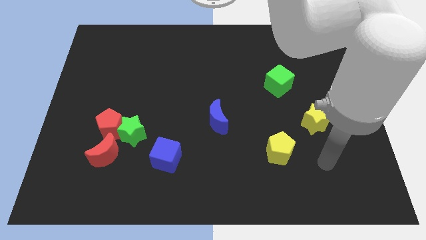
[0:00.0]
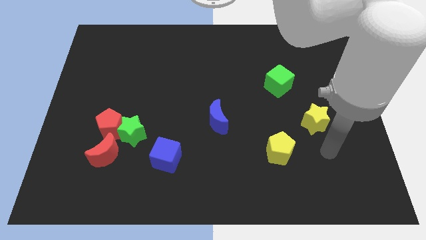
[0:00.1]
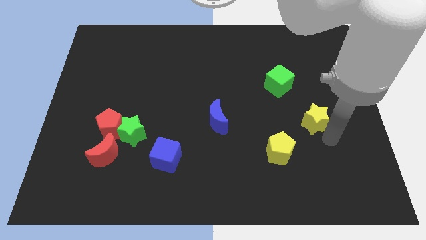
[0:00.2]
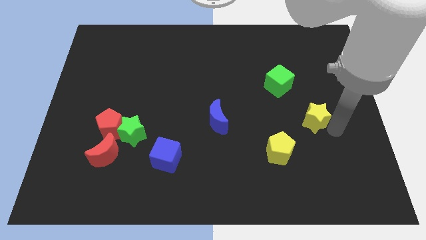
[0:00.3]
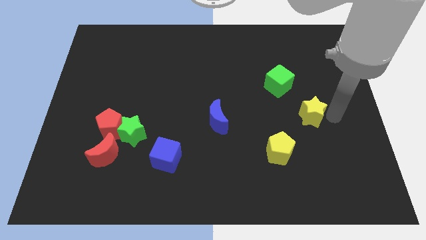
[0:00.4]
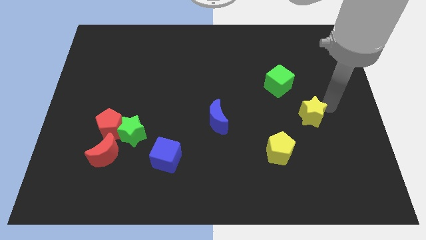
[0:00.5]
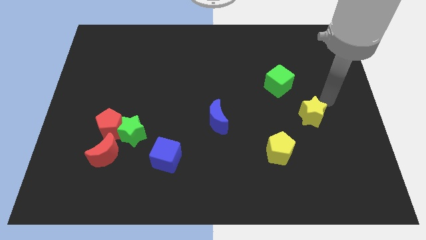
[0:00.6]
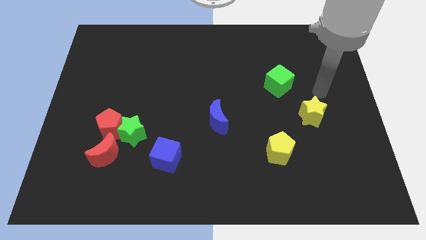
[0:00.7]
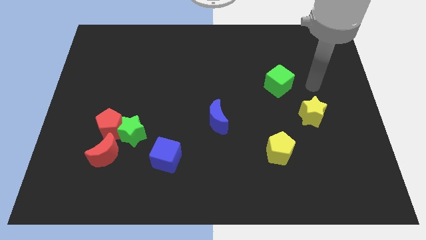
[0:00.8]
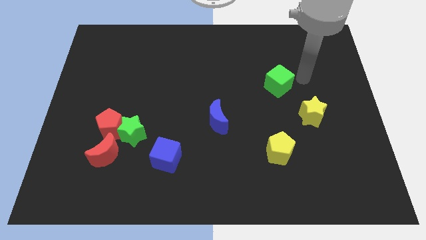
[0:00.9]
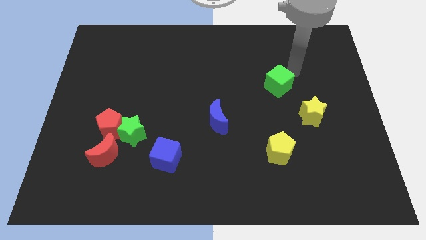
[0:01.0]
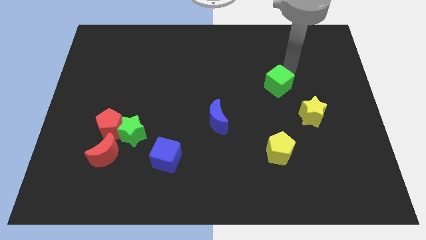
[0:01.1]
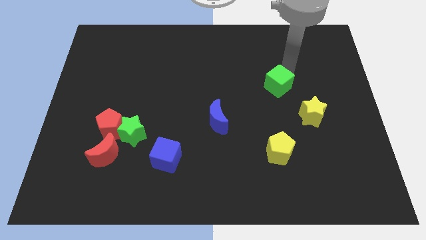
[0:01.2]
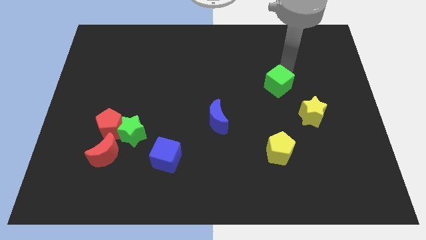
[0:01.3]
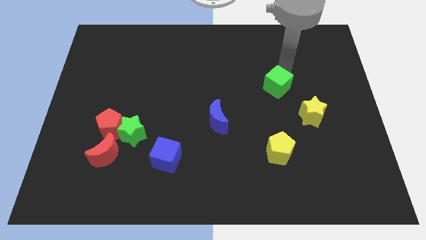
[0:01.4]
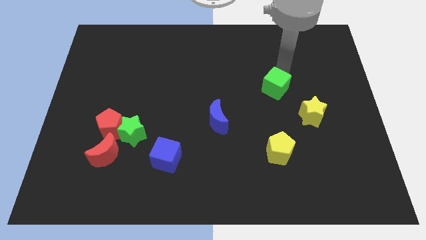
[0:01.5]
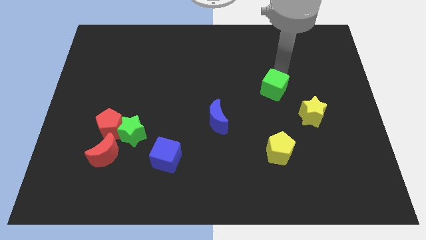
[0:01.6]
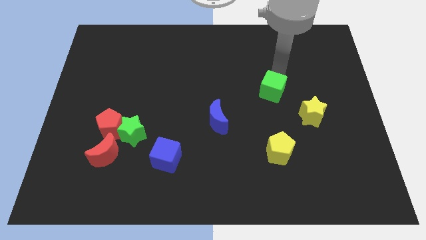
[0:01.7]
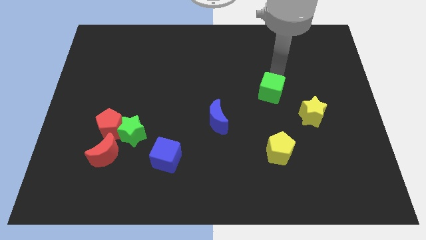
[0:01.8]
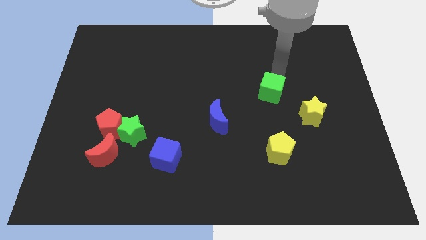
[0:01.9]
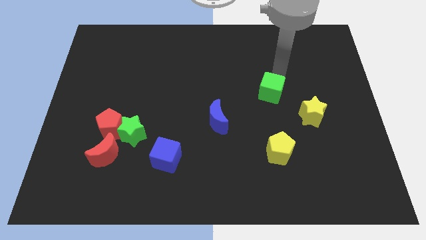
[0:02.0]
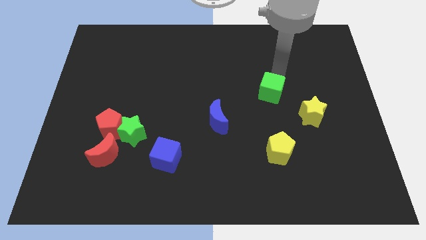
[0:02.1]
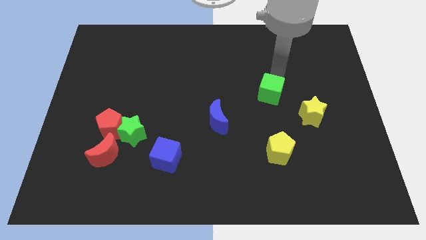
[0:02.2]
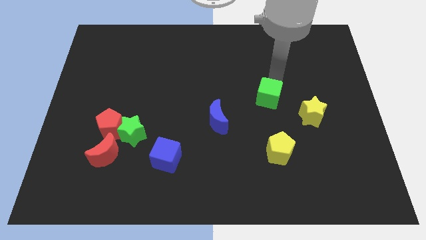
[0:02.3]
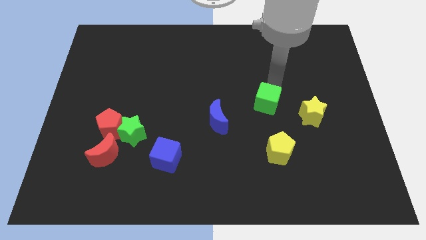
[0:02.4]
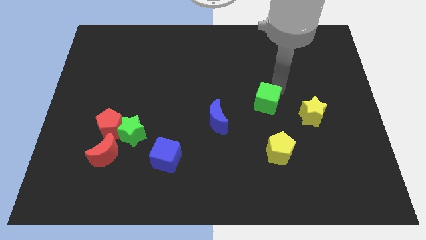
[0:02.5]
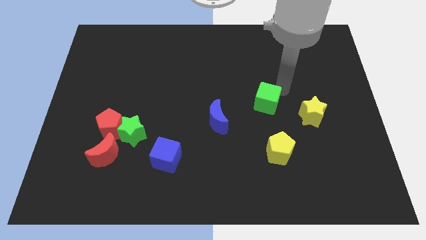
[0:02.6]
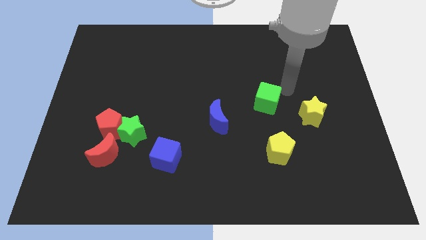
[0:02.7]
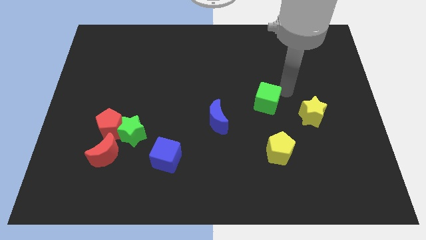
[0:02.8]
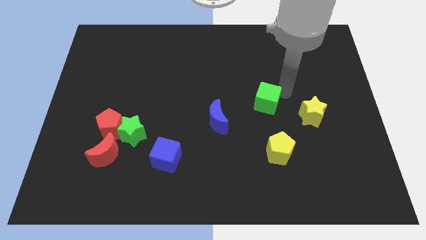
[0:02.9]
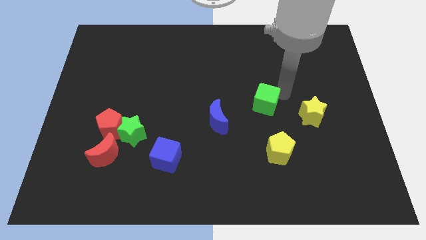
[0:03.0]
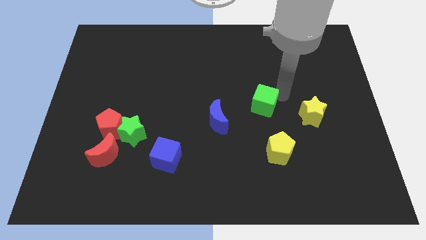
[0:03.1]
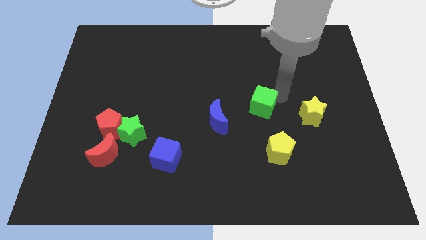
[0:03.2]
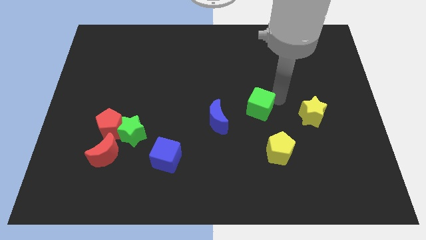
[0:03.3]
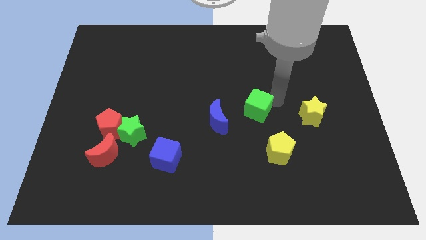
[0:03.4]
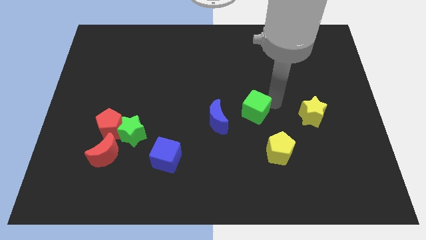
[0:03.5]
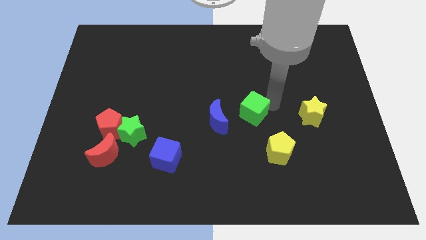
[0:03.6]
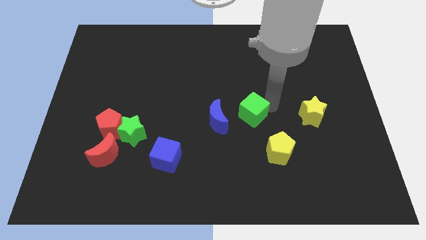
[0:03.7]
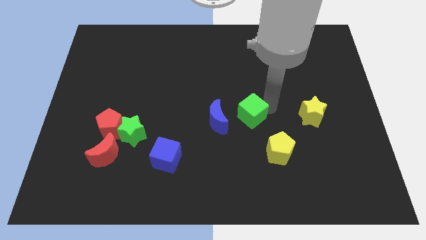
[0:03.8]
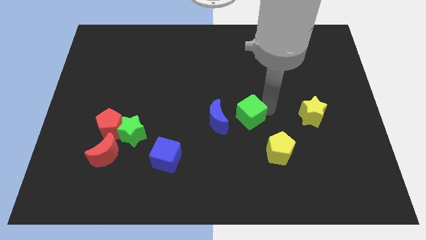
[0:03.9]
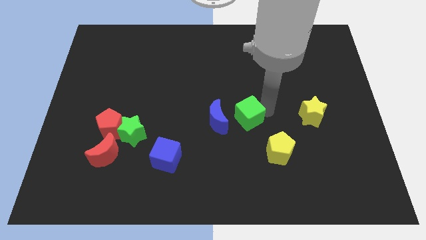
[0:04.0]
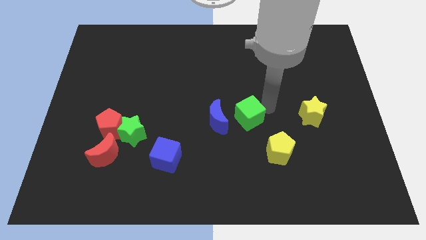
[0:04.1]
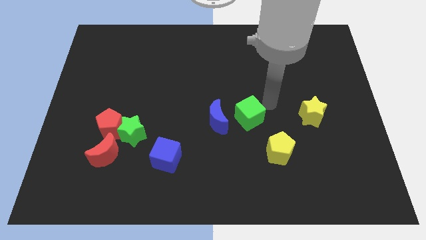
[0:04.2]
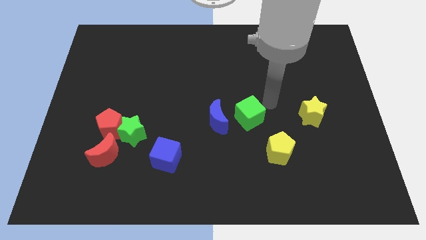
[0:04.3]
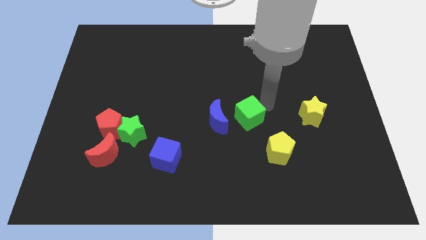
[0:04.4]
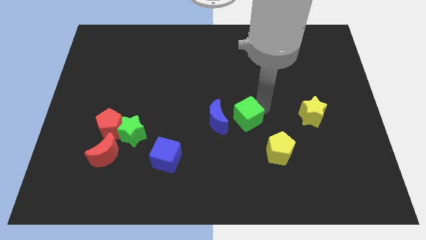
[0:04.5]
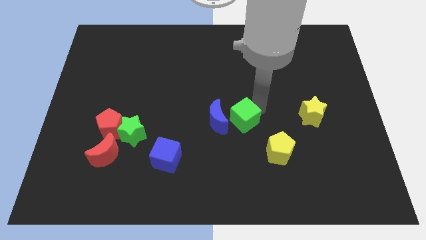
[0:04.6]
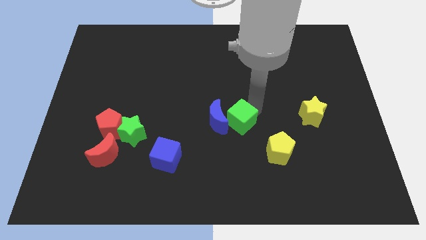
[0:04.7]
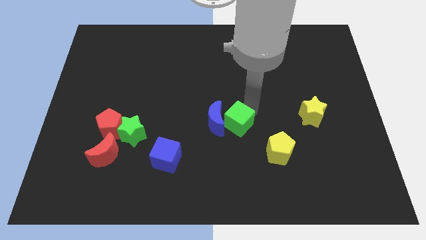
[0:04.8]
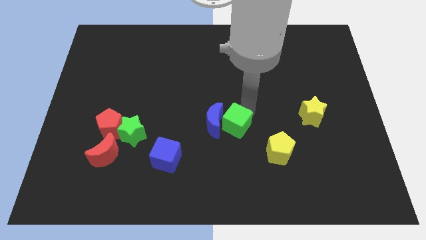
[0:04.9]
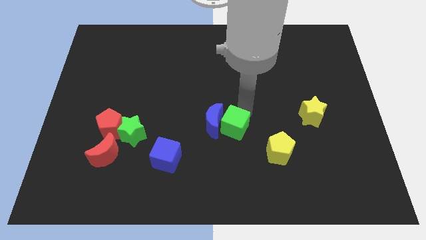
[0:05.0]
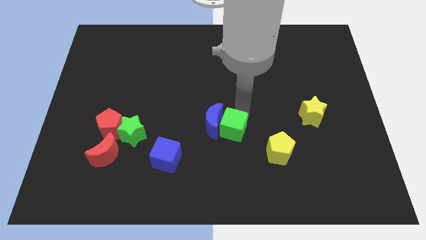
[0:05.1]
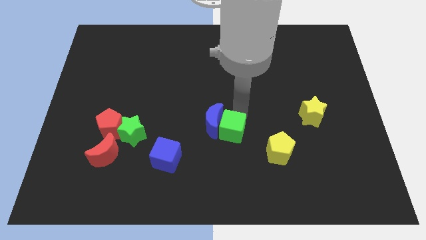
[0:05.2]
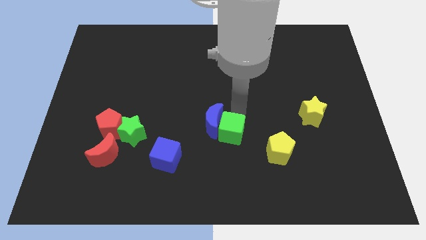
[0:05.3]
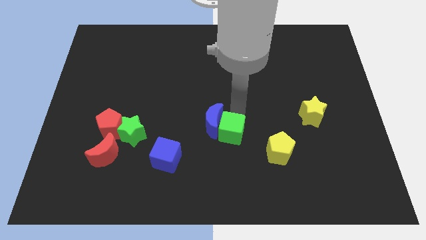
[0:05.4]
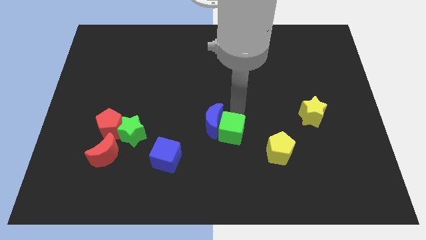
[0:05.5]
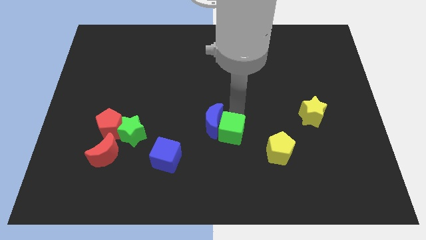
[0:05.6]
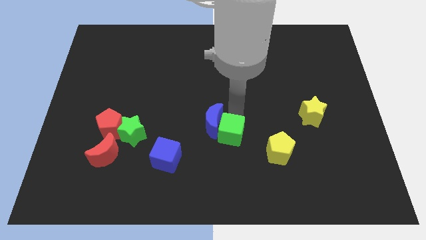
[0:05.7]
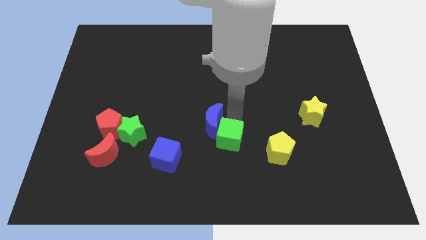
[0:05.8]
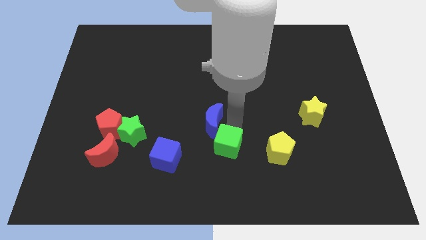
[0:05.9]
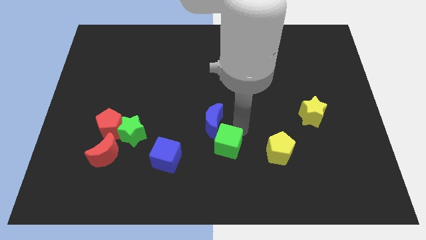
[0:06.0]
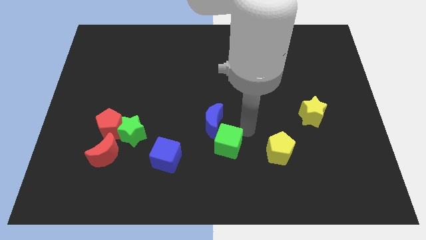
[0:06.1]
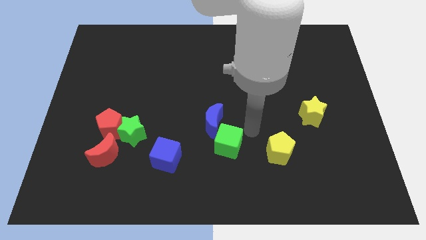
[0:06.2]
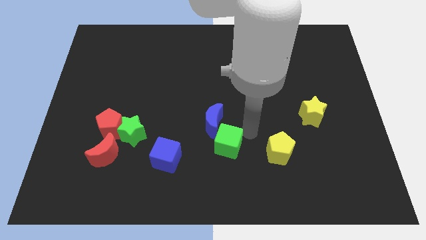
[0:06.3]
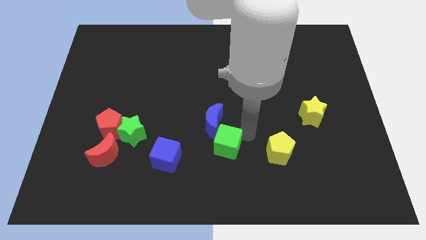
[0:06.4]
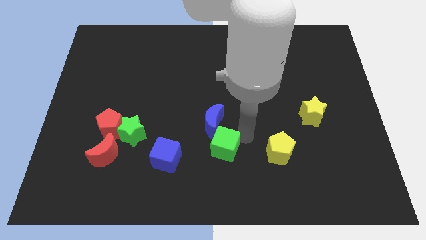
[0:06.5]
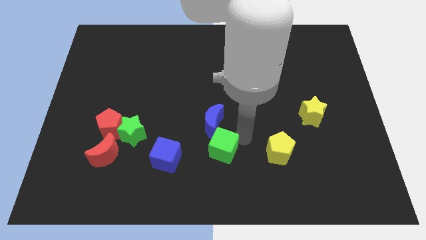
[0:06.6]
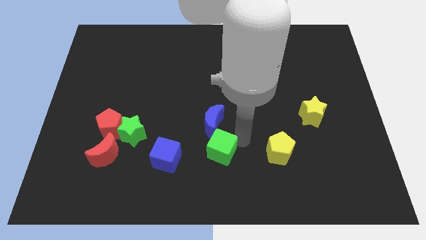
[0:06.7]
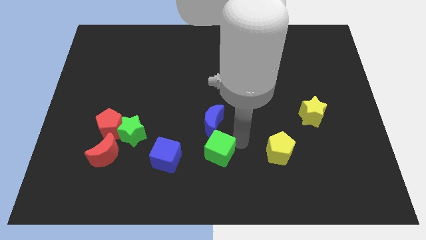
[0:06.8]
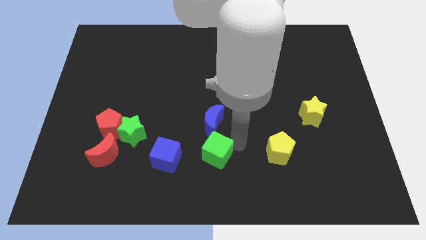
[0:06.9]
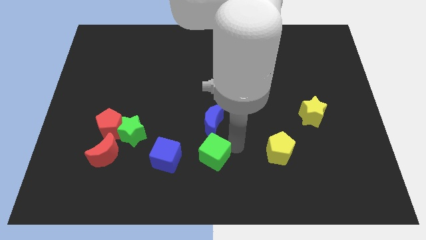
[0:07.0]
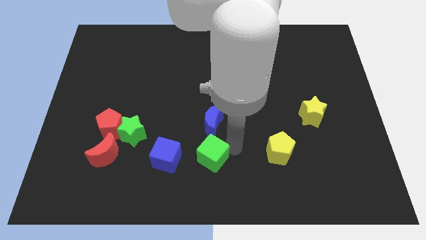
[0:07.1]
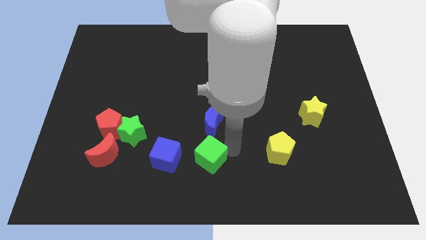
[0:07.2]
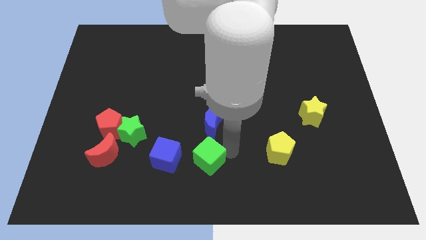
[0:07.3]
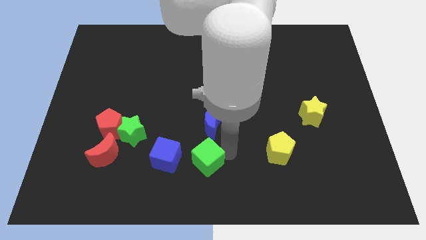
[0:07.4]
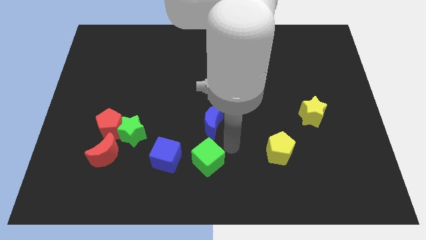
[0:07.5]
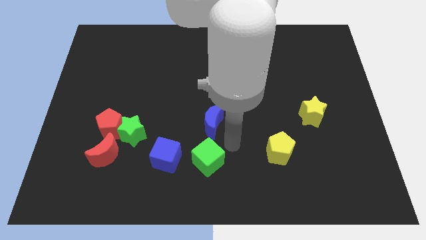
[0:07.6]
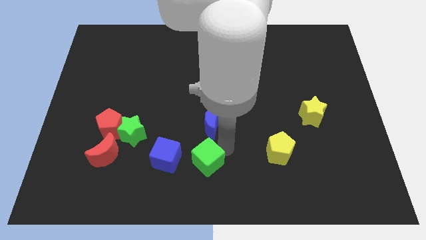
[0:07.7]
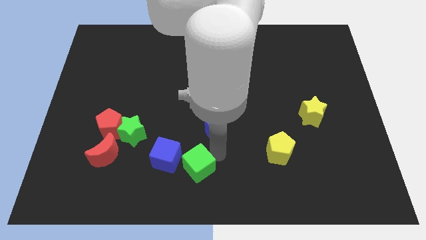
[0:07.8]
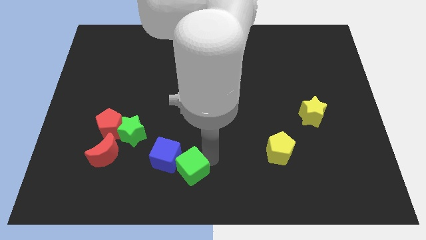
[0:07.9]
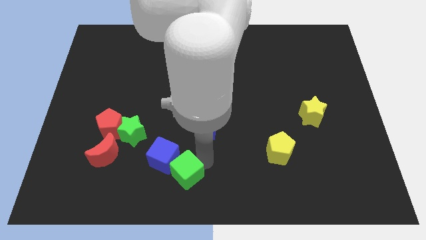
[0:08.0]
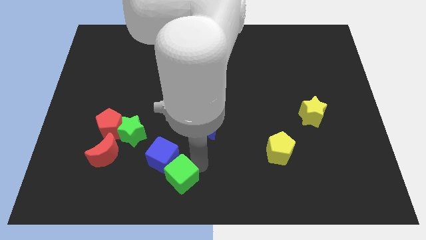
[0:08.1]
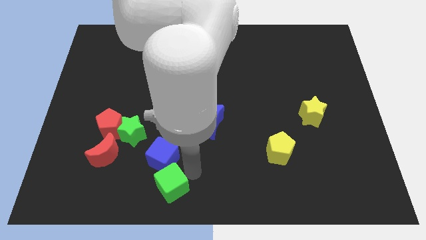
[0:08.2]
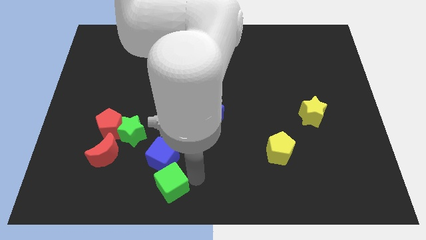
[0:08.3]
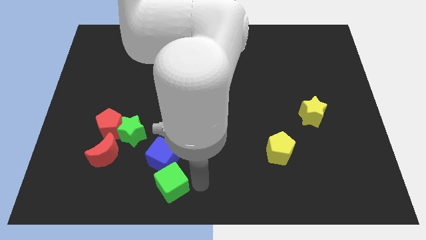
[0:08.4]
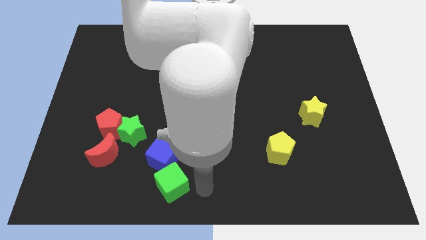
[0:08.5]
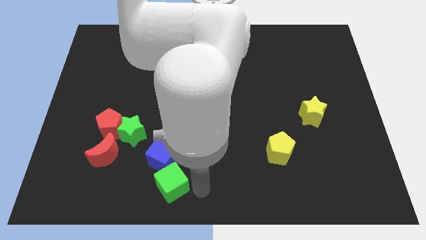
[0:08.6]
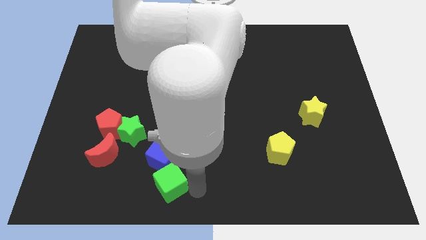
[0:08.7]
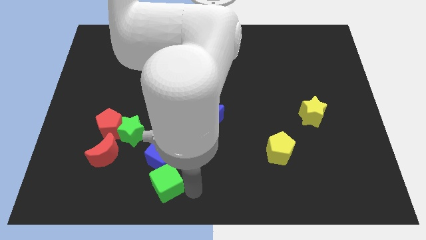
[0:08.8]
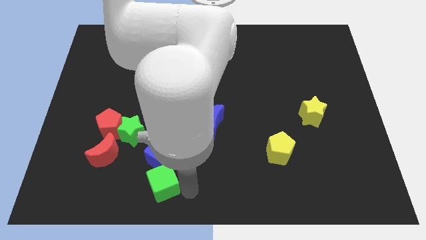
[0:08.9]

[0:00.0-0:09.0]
put the green cube to the bottom left side of the blue cube
